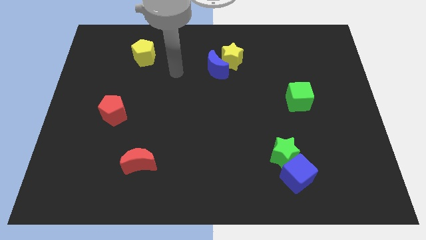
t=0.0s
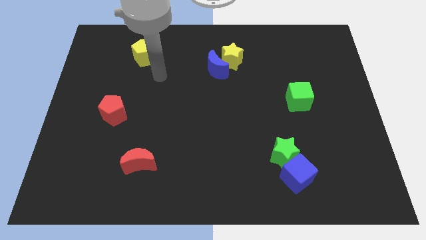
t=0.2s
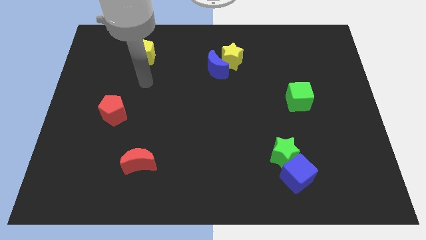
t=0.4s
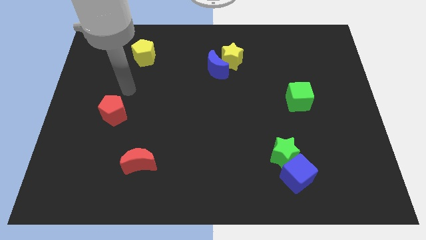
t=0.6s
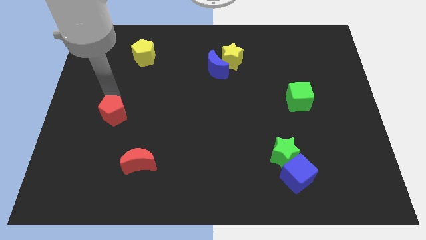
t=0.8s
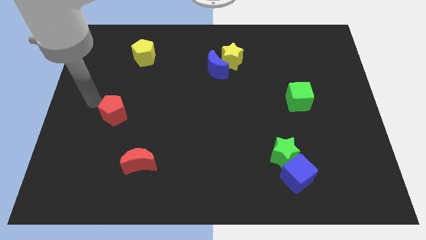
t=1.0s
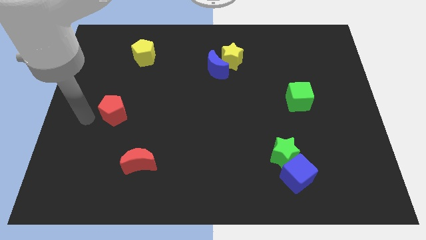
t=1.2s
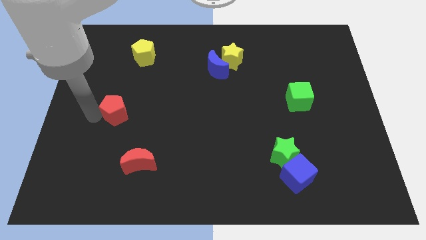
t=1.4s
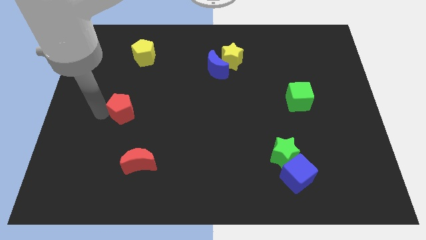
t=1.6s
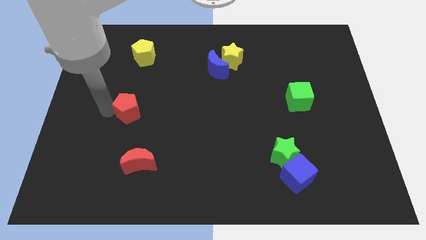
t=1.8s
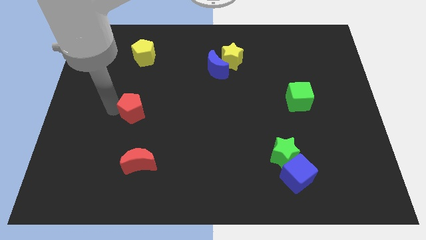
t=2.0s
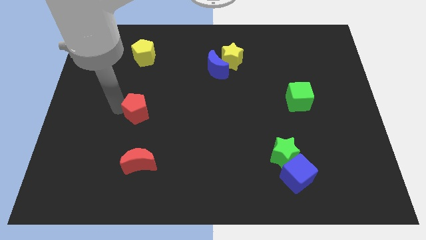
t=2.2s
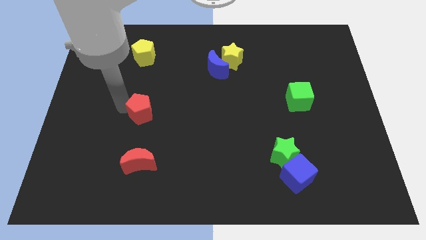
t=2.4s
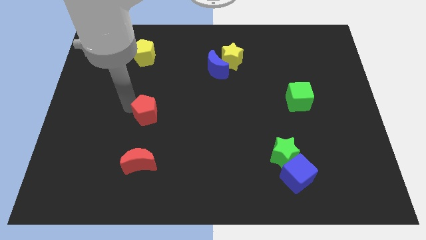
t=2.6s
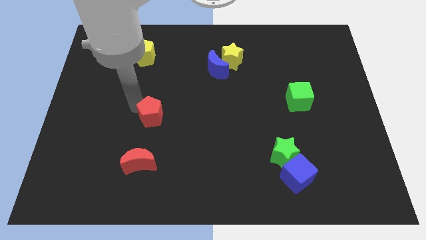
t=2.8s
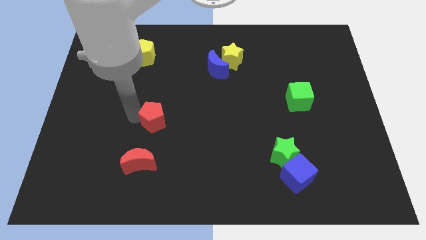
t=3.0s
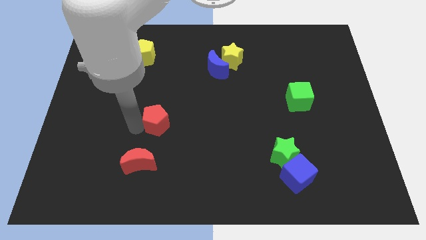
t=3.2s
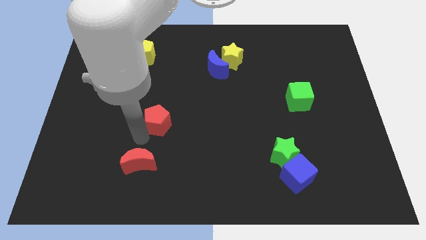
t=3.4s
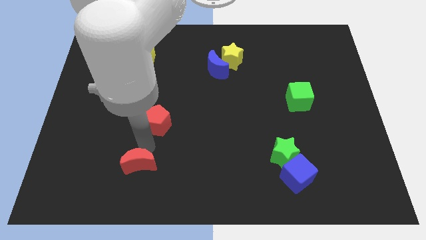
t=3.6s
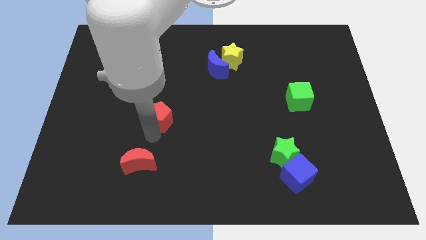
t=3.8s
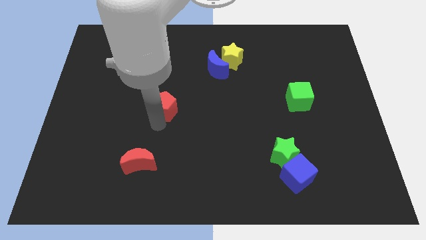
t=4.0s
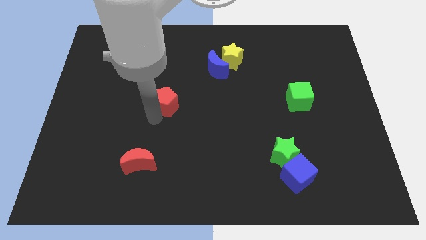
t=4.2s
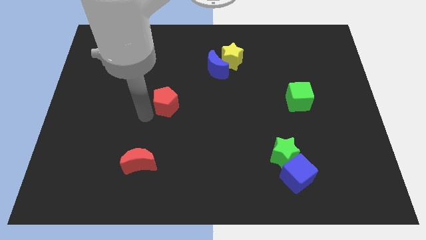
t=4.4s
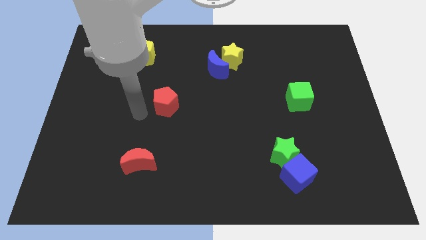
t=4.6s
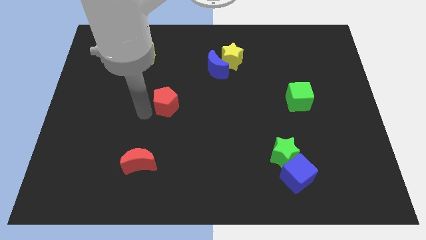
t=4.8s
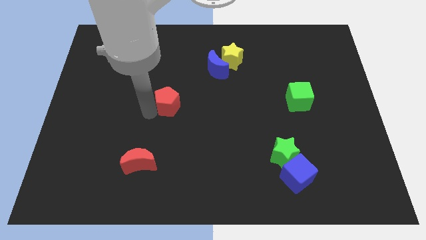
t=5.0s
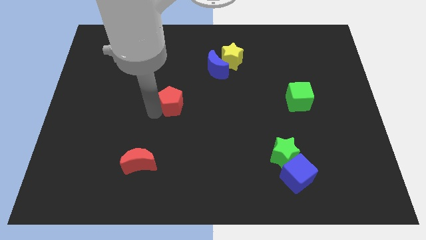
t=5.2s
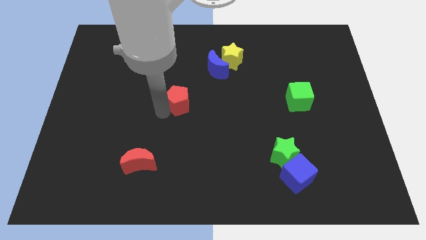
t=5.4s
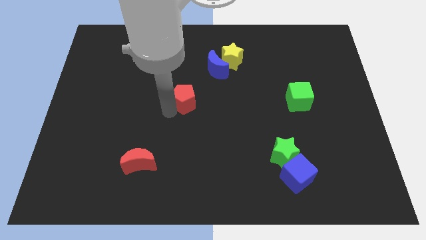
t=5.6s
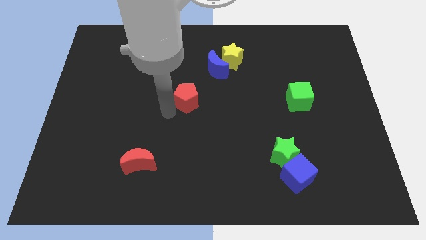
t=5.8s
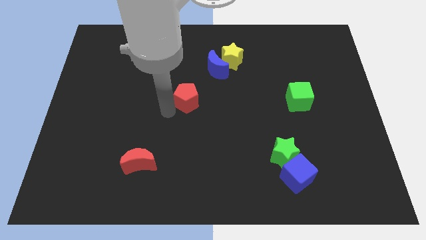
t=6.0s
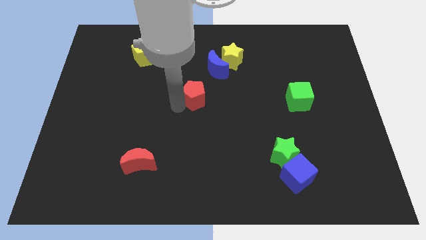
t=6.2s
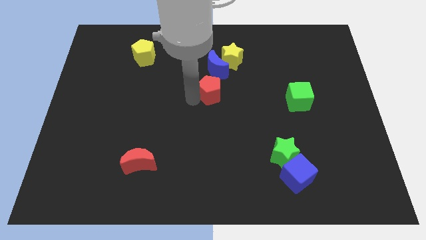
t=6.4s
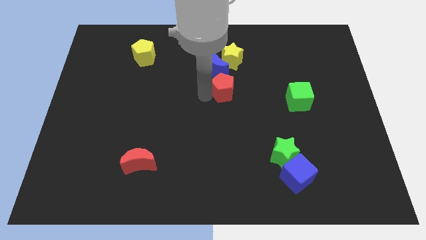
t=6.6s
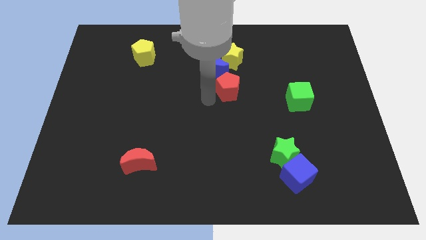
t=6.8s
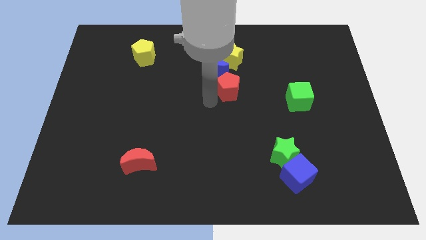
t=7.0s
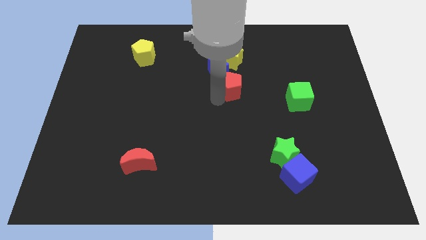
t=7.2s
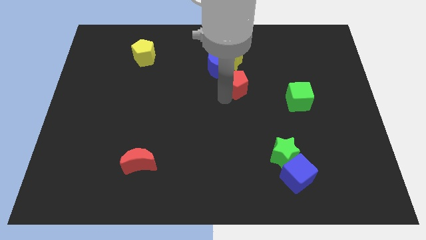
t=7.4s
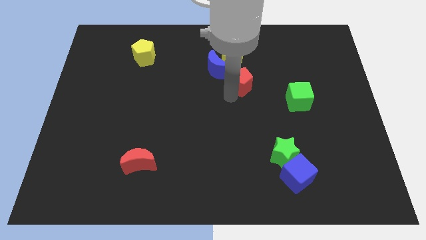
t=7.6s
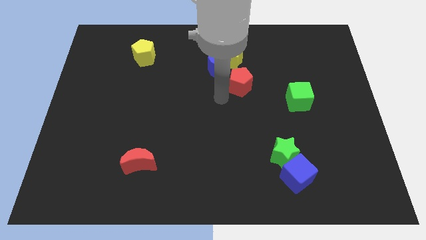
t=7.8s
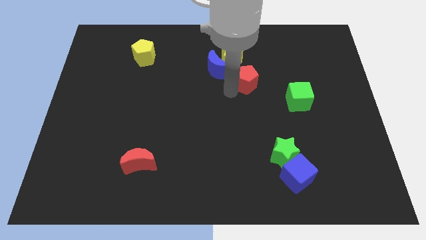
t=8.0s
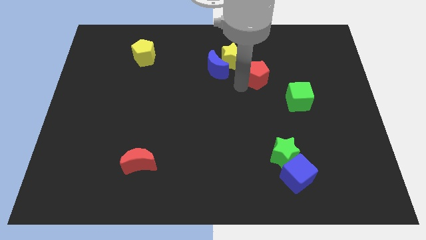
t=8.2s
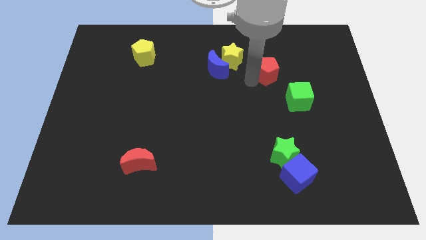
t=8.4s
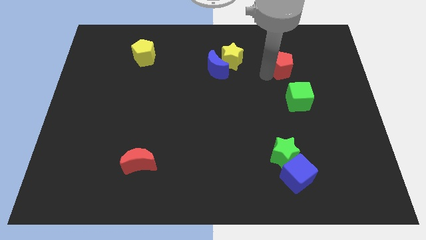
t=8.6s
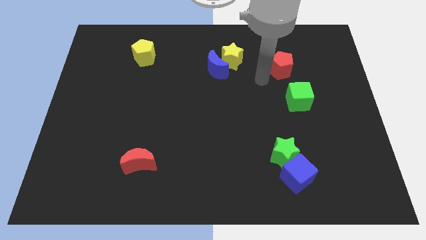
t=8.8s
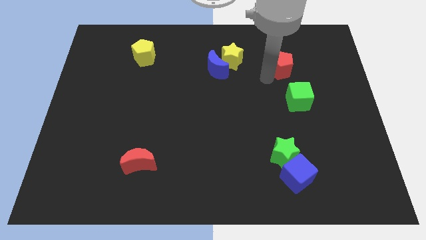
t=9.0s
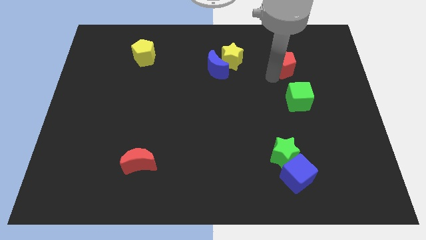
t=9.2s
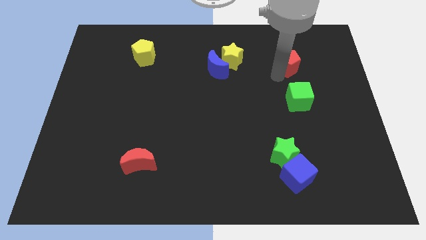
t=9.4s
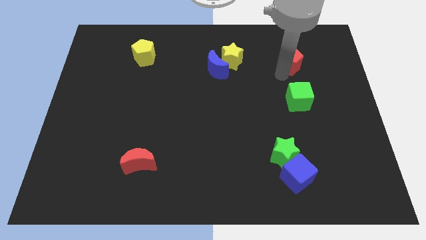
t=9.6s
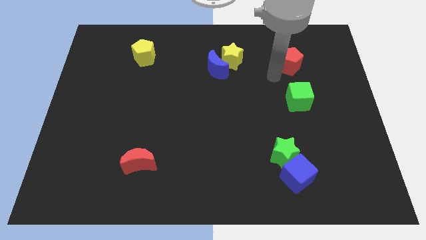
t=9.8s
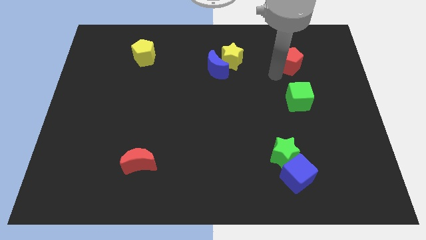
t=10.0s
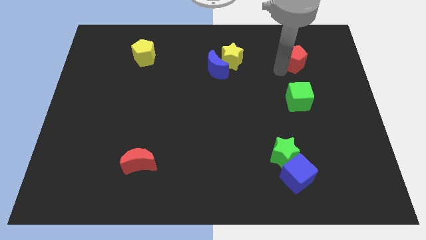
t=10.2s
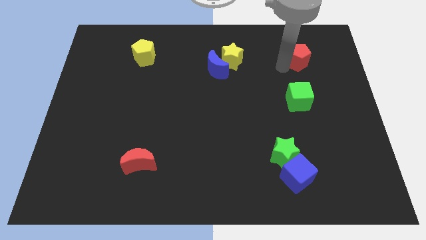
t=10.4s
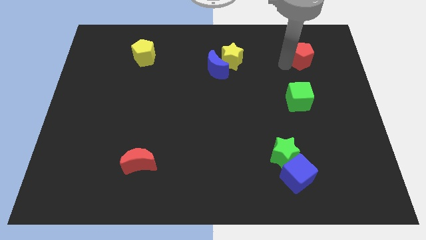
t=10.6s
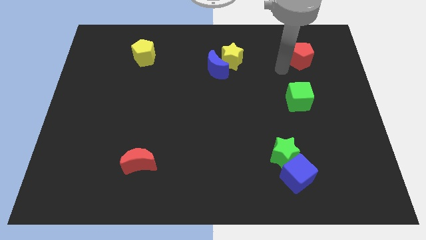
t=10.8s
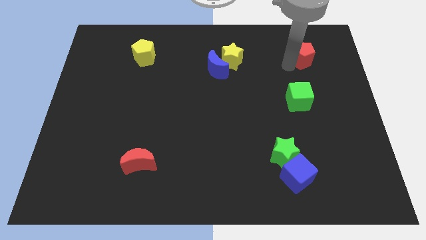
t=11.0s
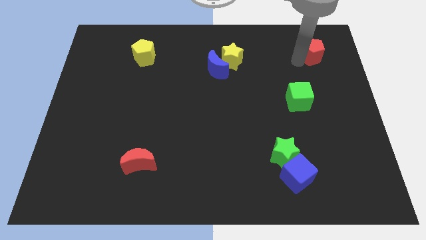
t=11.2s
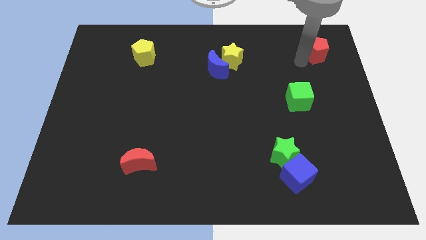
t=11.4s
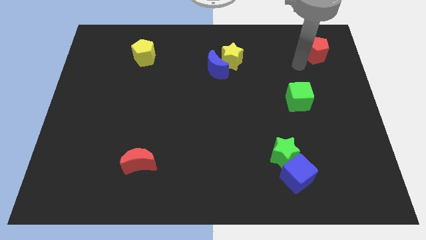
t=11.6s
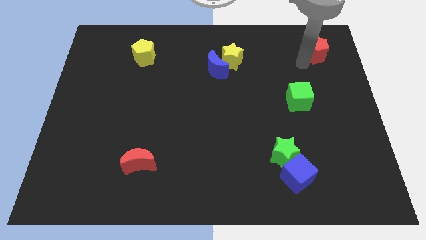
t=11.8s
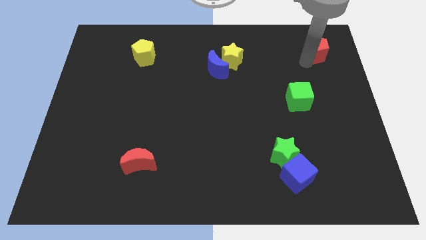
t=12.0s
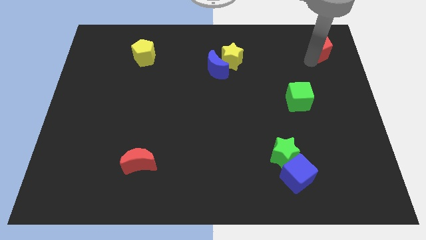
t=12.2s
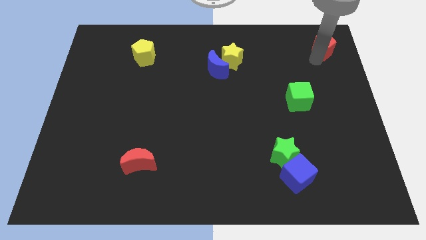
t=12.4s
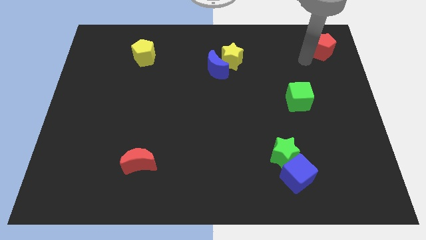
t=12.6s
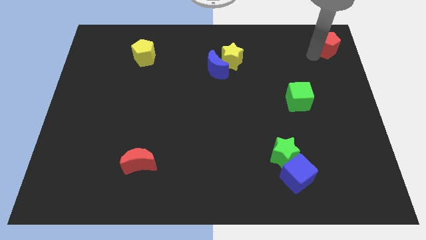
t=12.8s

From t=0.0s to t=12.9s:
put the red pentagon to the top right of the board
